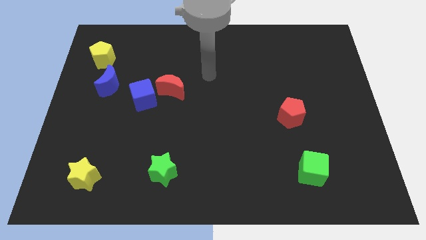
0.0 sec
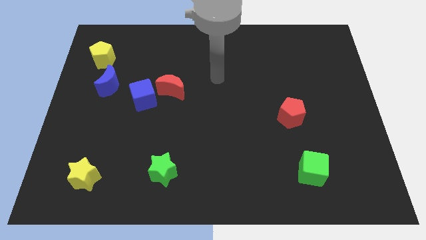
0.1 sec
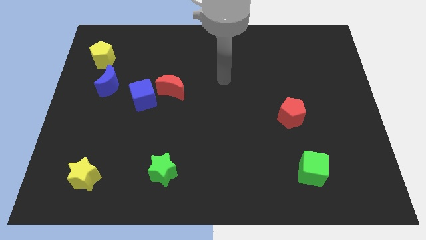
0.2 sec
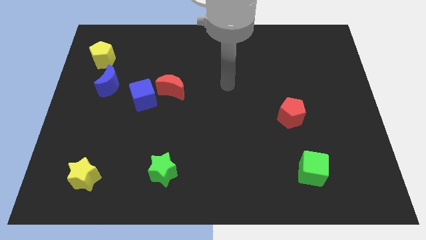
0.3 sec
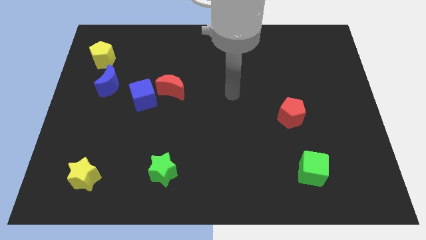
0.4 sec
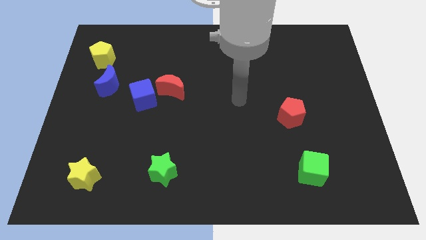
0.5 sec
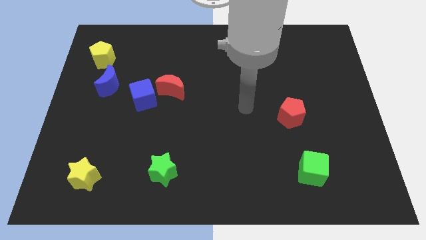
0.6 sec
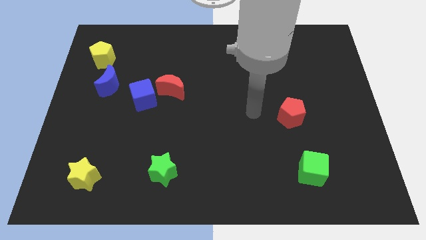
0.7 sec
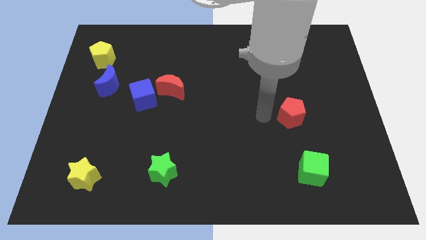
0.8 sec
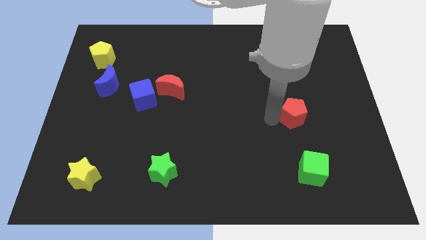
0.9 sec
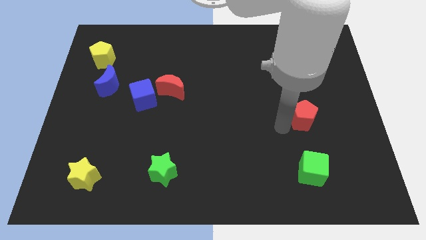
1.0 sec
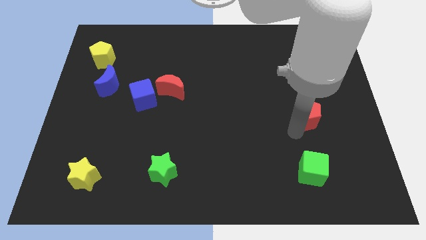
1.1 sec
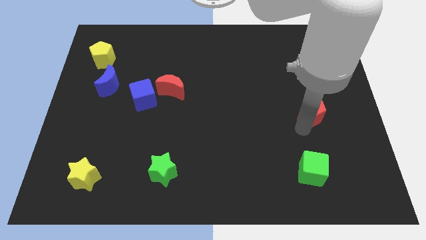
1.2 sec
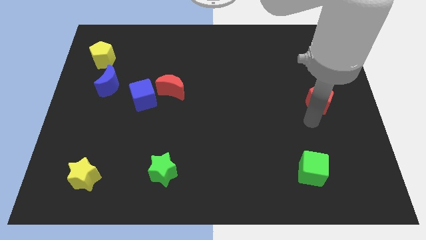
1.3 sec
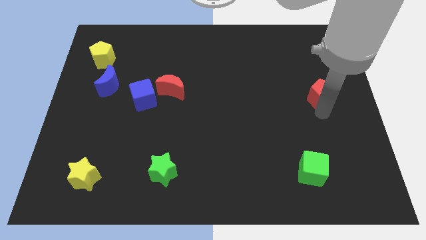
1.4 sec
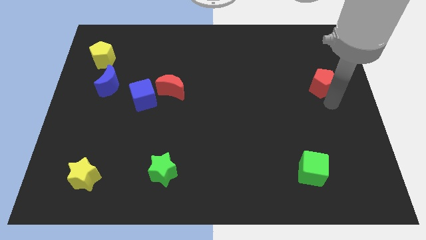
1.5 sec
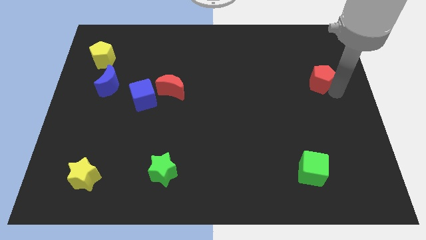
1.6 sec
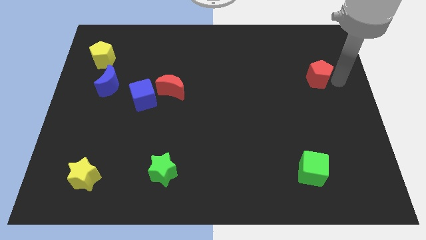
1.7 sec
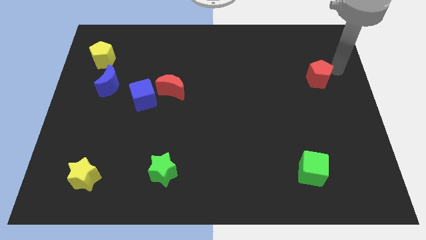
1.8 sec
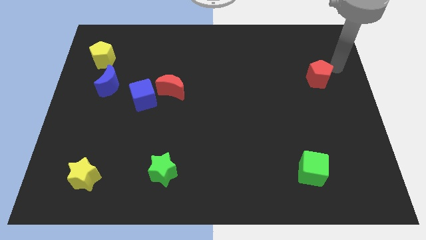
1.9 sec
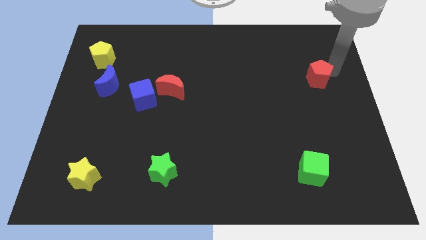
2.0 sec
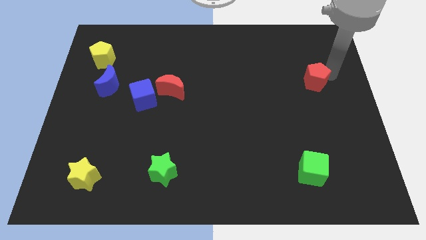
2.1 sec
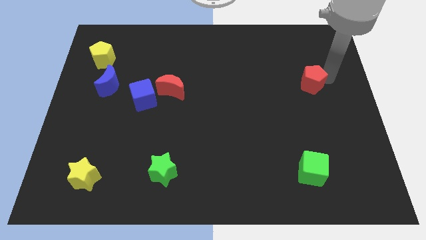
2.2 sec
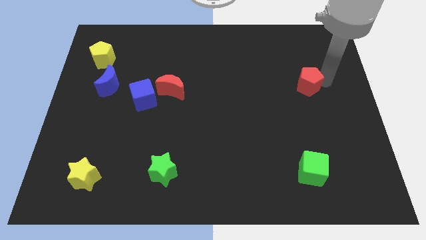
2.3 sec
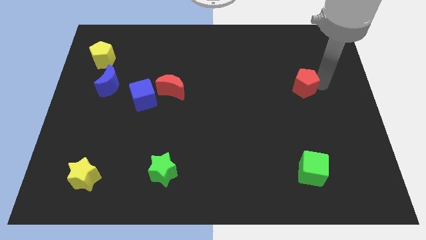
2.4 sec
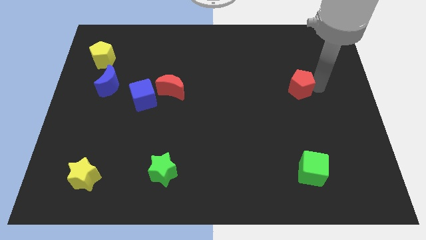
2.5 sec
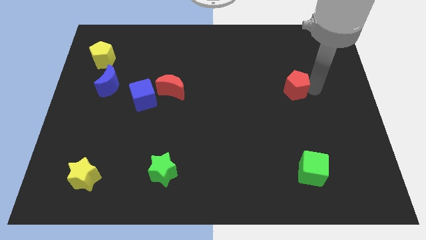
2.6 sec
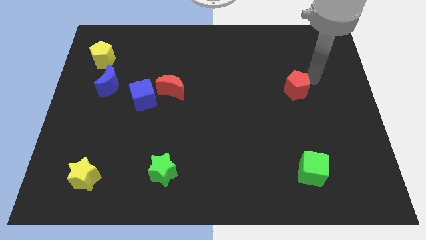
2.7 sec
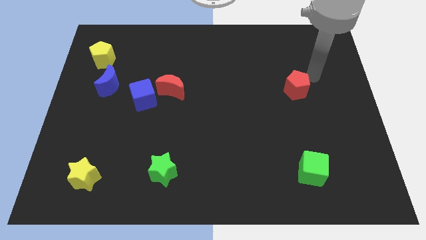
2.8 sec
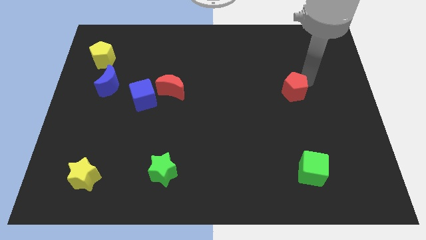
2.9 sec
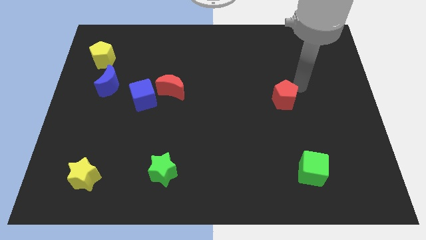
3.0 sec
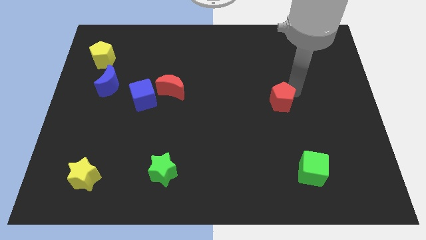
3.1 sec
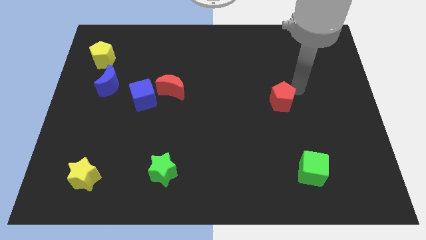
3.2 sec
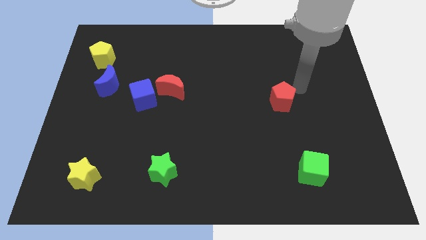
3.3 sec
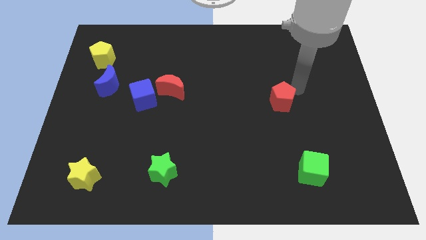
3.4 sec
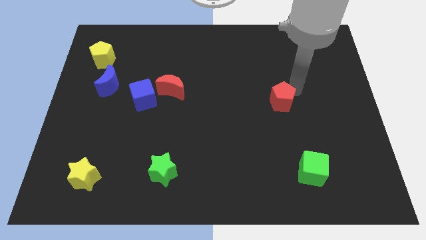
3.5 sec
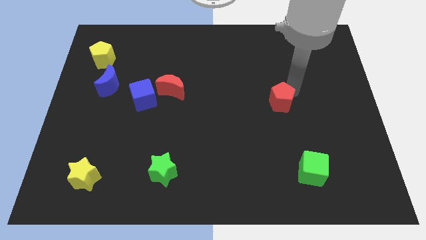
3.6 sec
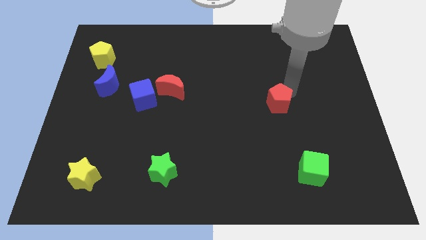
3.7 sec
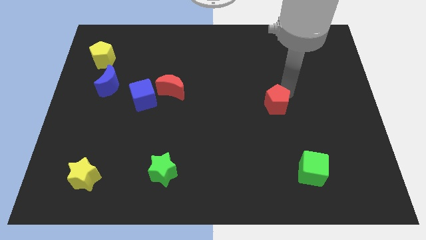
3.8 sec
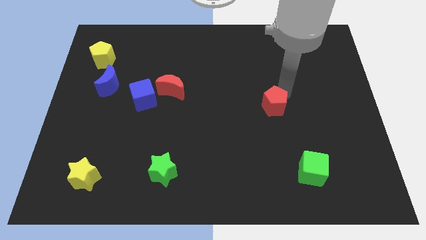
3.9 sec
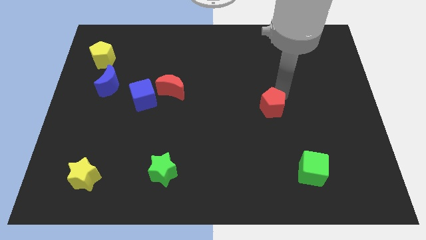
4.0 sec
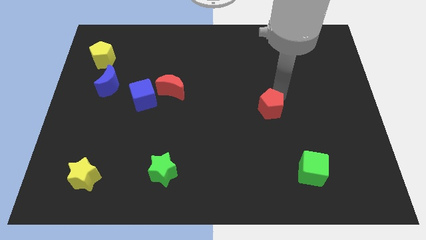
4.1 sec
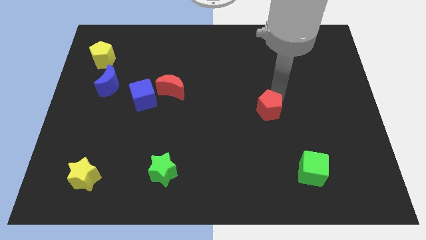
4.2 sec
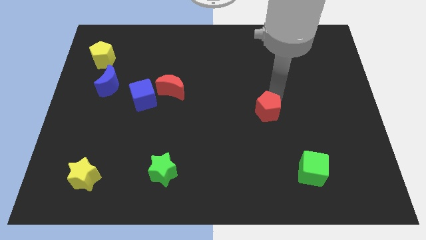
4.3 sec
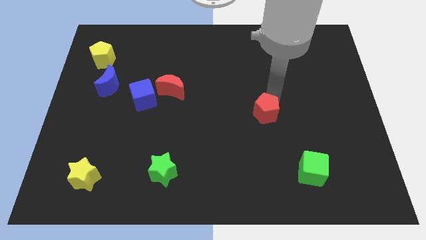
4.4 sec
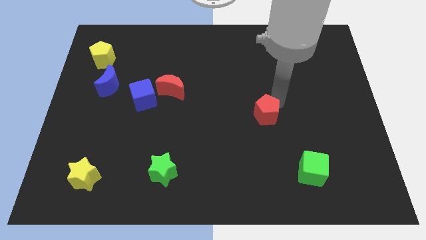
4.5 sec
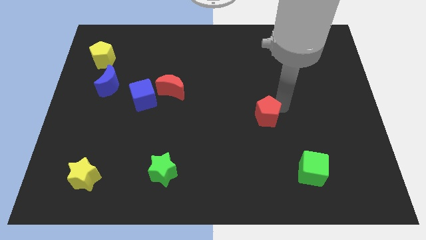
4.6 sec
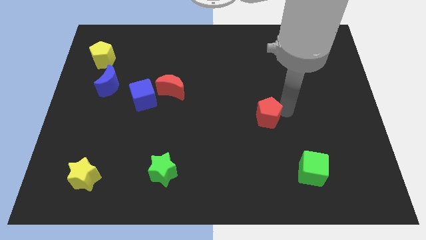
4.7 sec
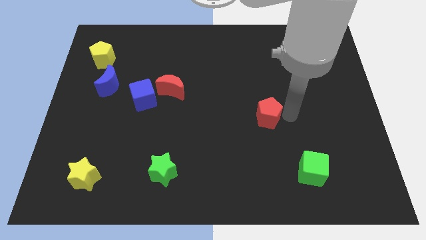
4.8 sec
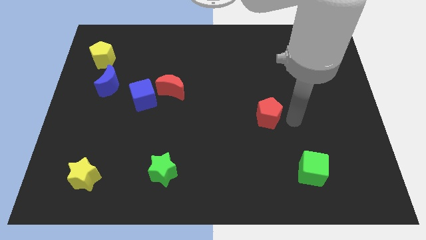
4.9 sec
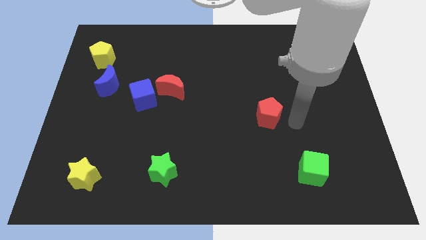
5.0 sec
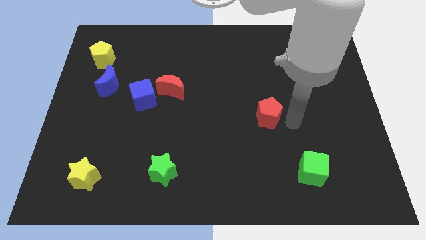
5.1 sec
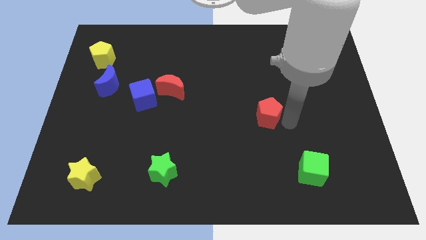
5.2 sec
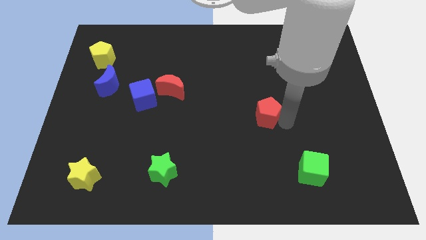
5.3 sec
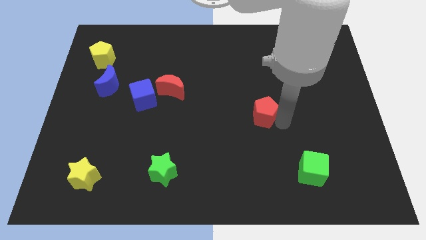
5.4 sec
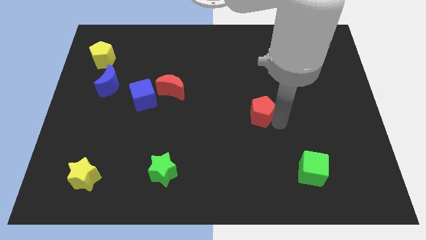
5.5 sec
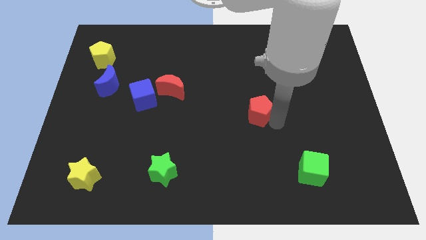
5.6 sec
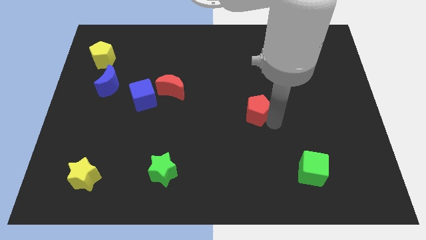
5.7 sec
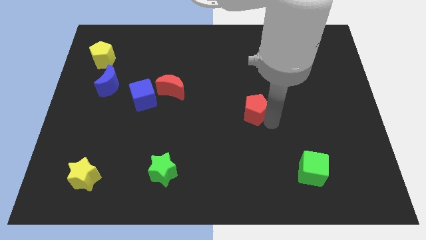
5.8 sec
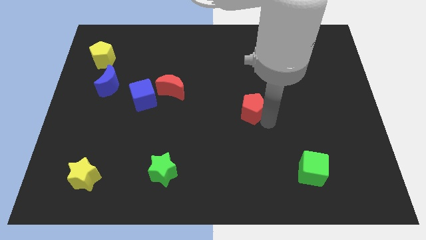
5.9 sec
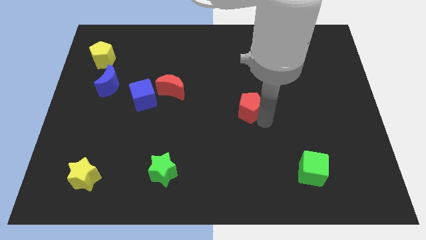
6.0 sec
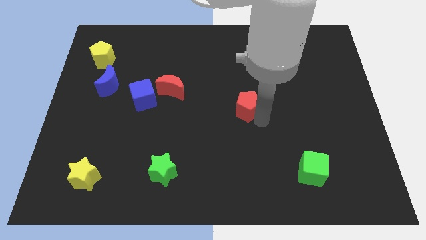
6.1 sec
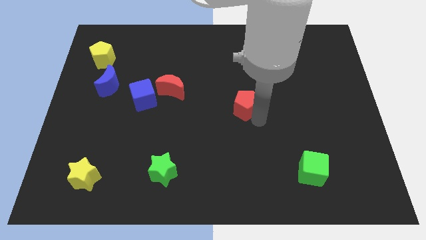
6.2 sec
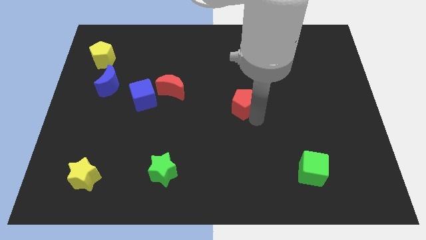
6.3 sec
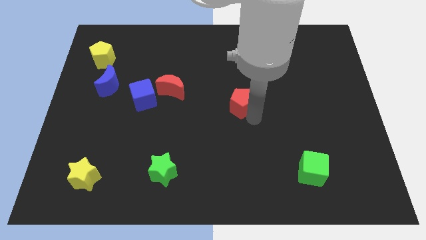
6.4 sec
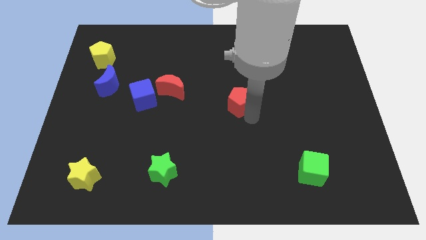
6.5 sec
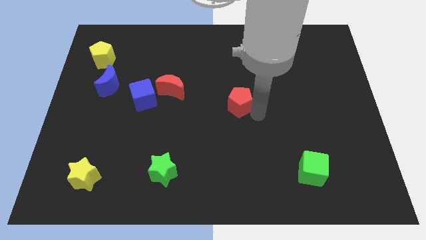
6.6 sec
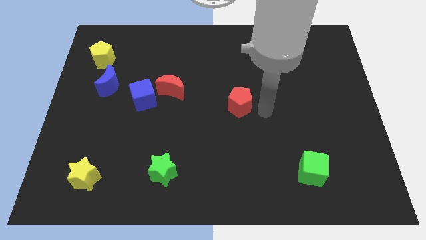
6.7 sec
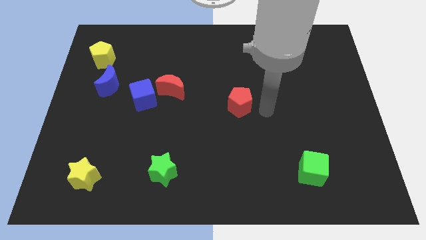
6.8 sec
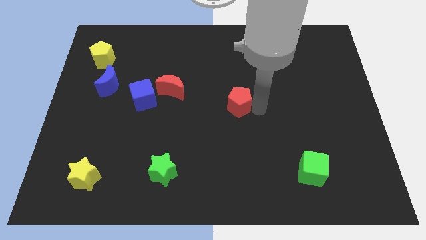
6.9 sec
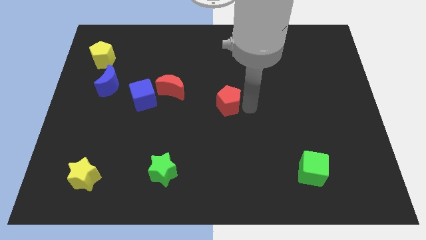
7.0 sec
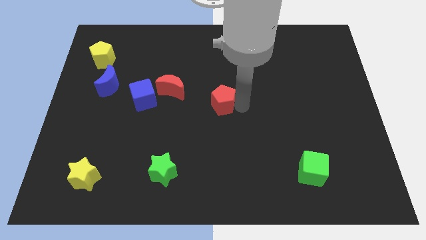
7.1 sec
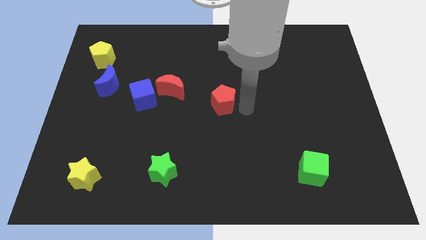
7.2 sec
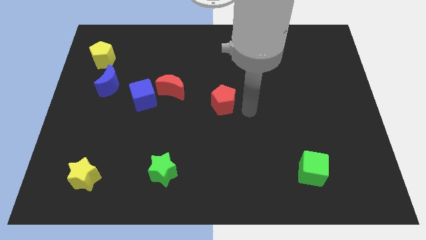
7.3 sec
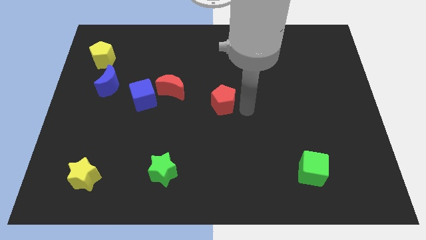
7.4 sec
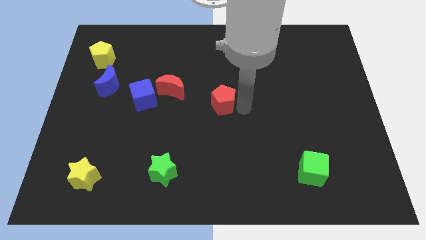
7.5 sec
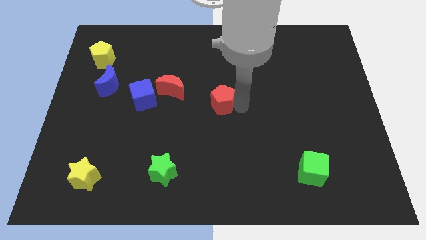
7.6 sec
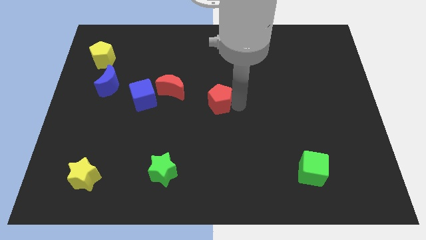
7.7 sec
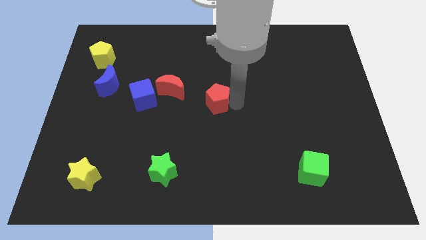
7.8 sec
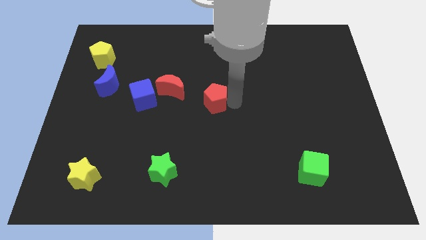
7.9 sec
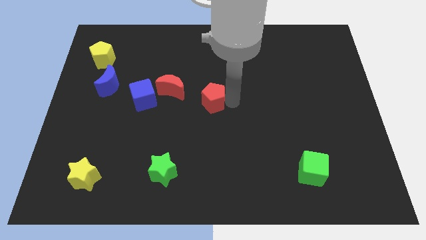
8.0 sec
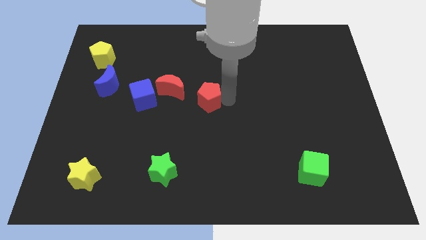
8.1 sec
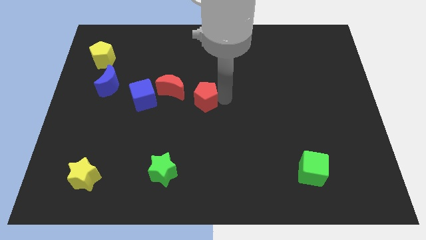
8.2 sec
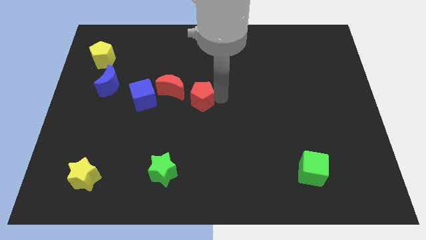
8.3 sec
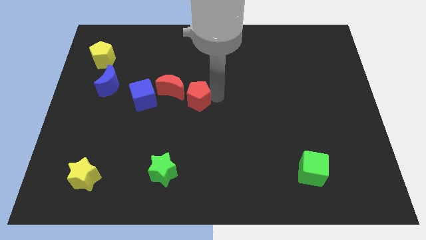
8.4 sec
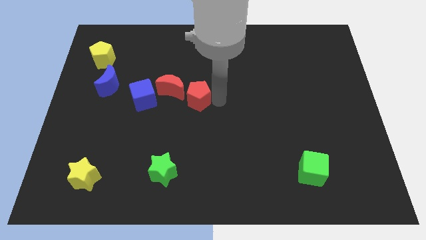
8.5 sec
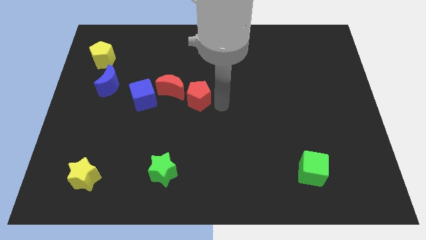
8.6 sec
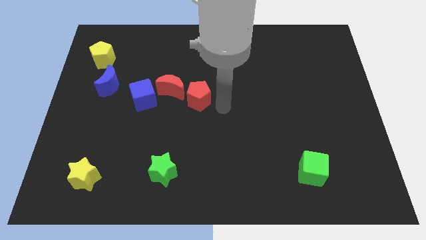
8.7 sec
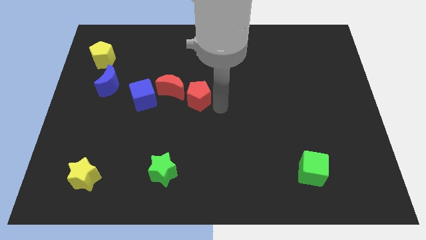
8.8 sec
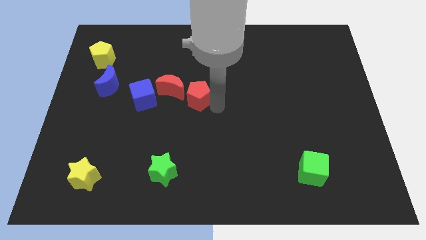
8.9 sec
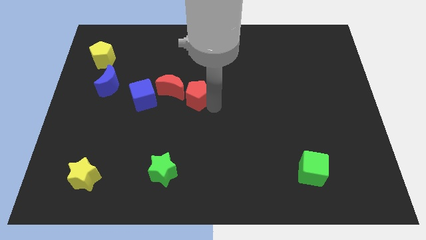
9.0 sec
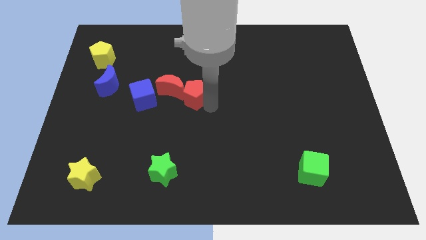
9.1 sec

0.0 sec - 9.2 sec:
slide the red pentagon close to the red moon
